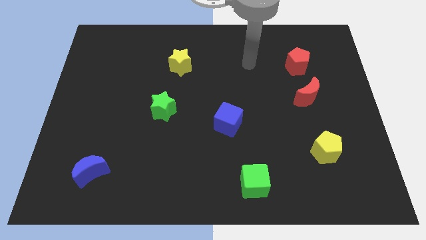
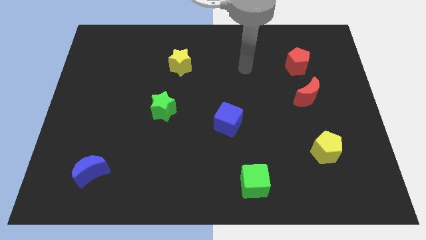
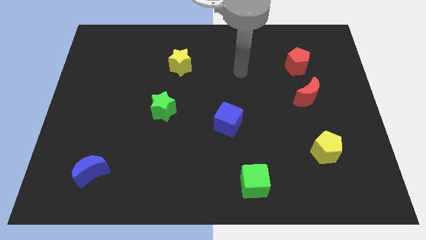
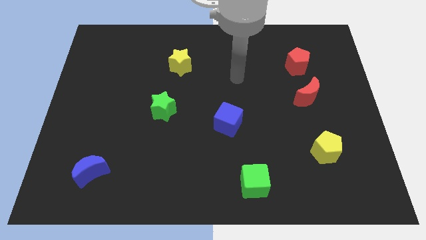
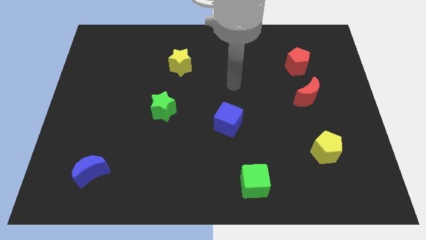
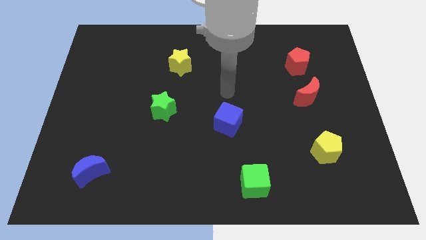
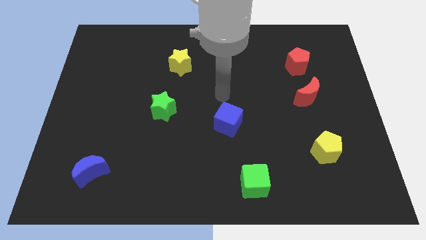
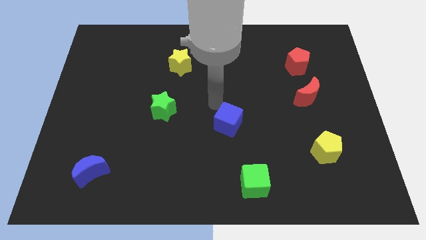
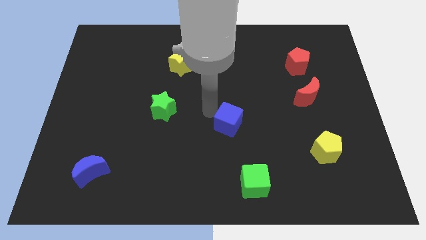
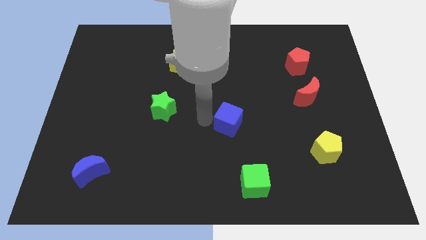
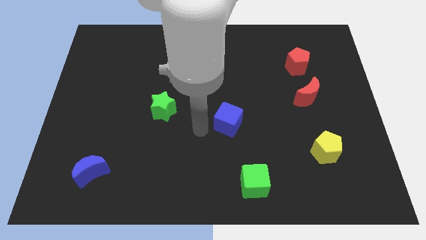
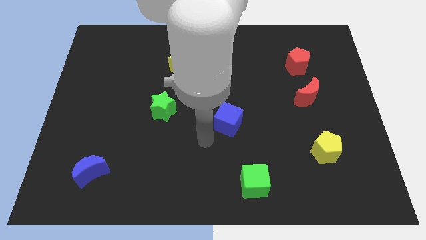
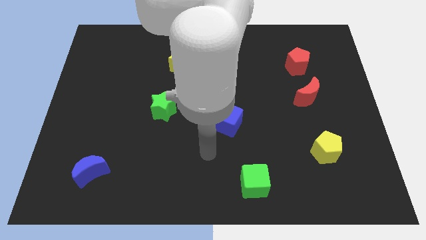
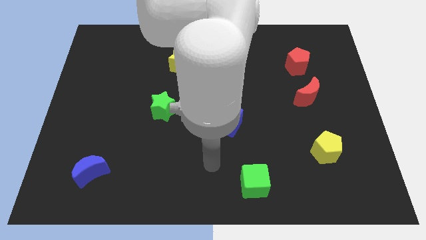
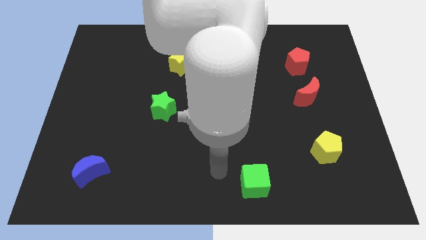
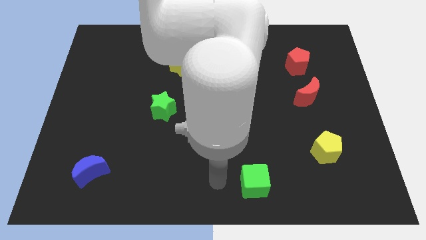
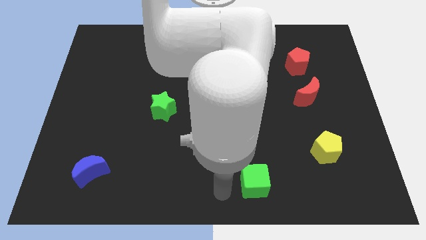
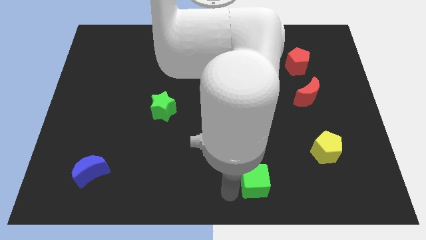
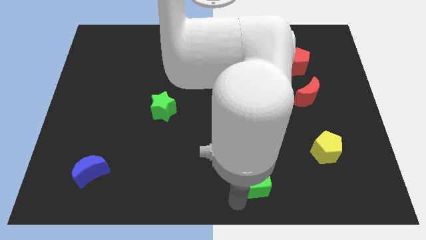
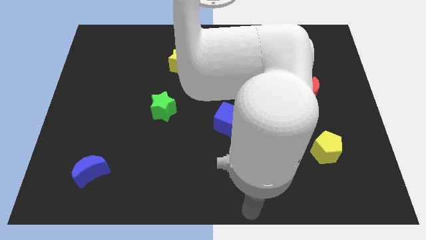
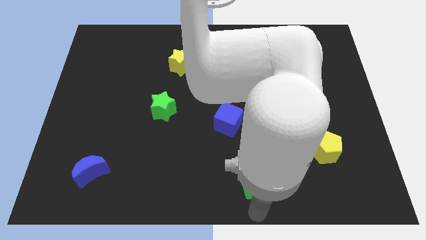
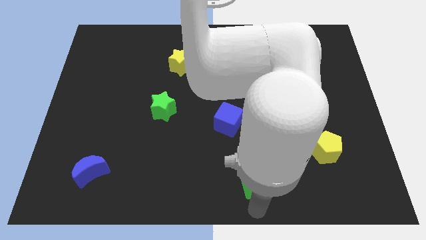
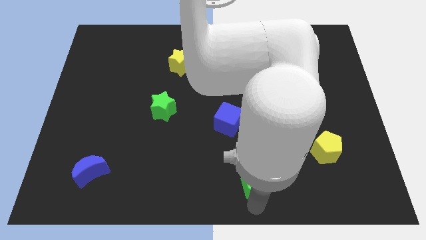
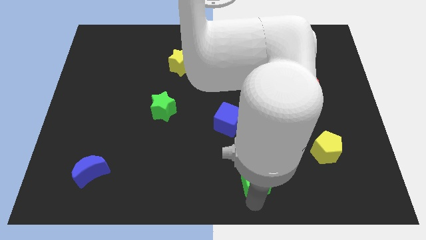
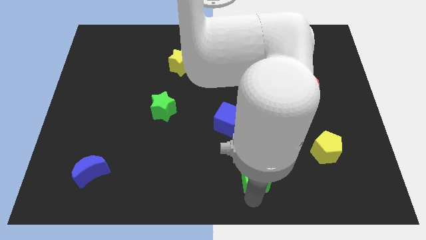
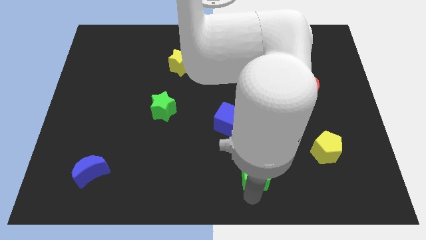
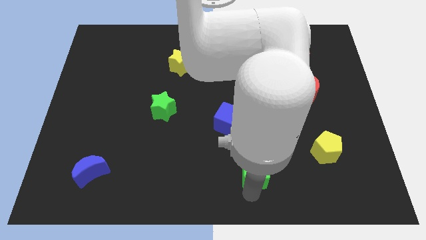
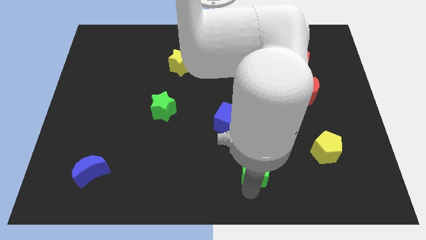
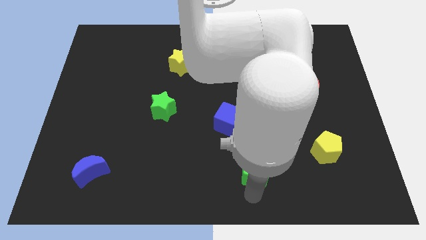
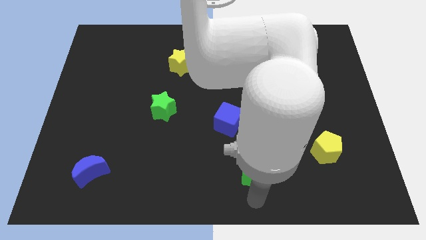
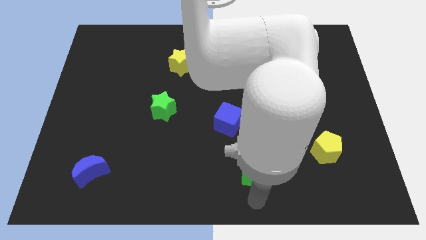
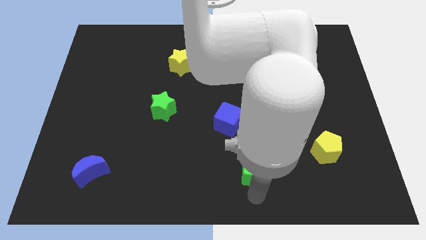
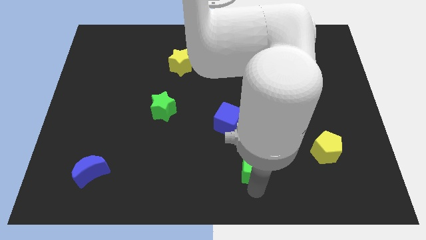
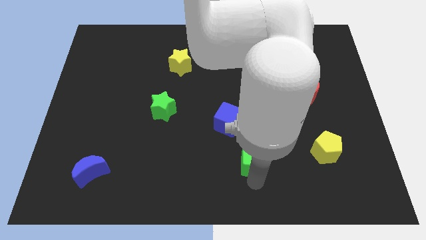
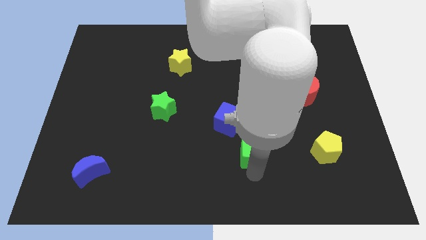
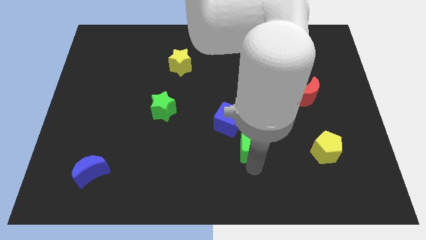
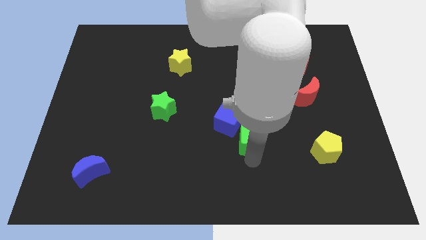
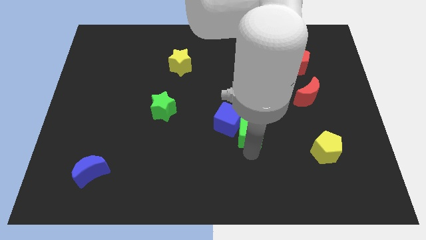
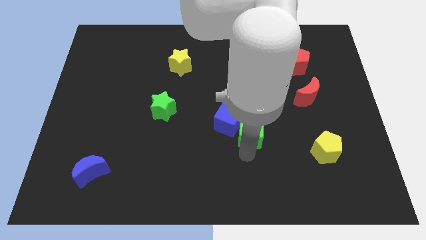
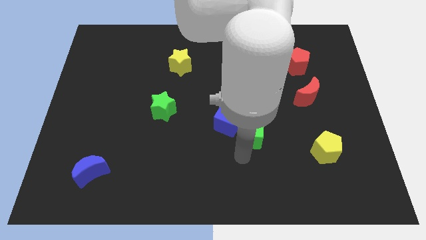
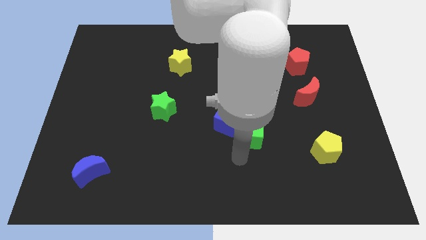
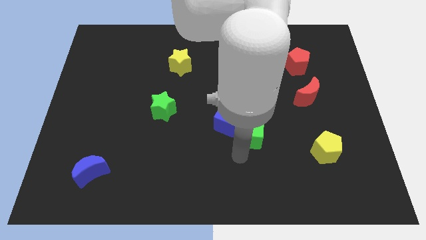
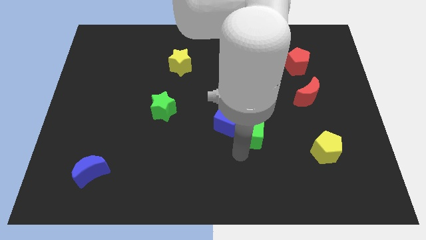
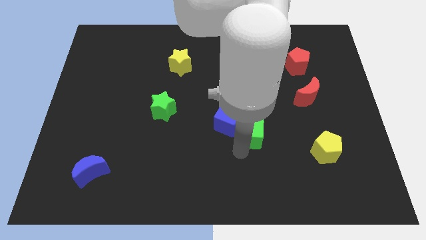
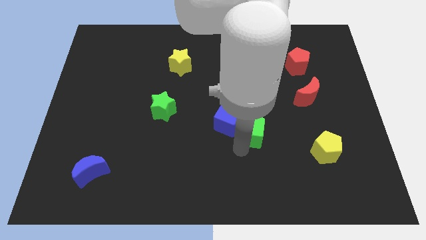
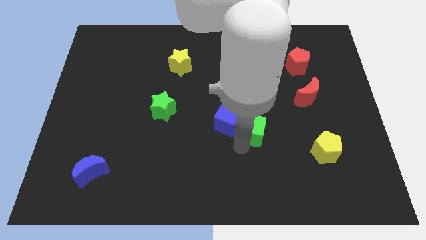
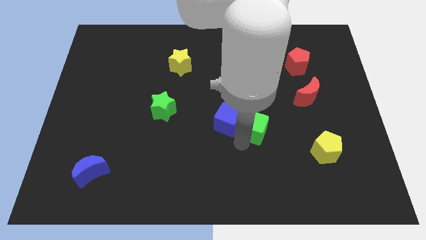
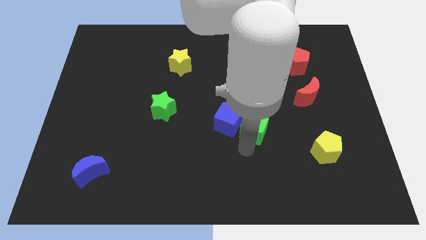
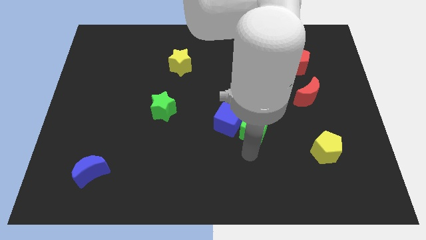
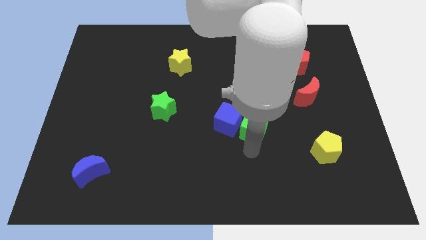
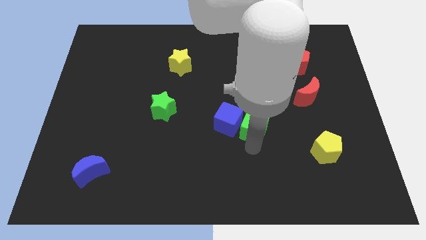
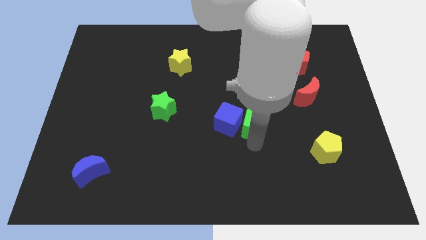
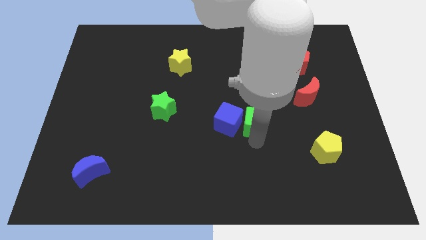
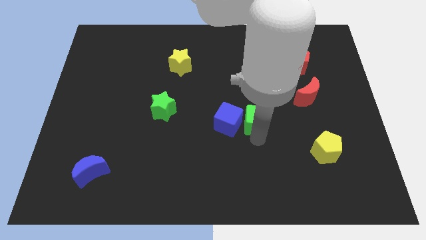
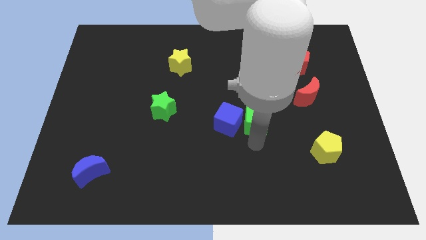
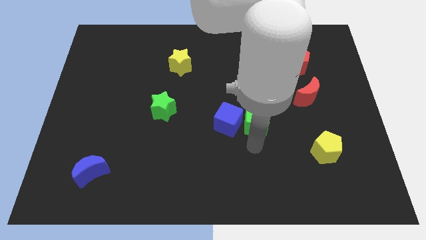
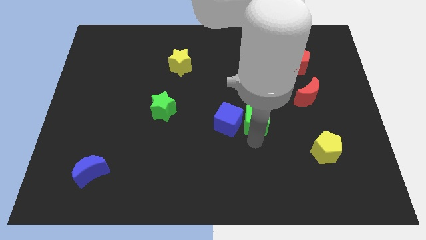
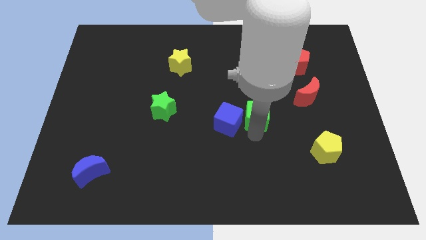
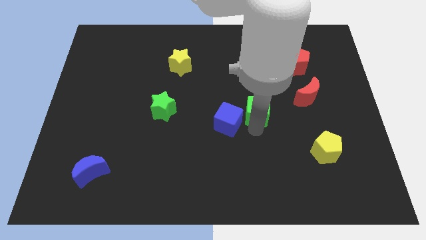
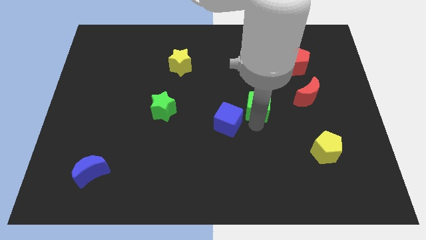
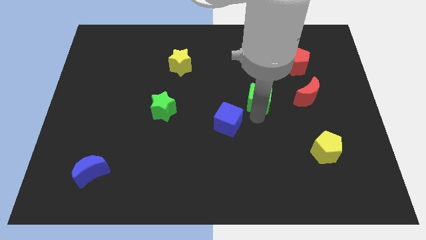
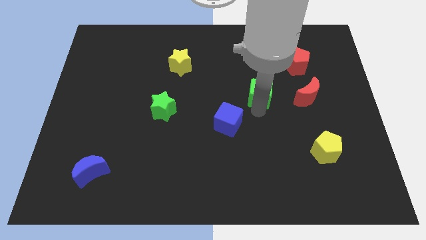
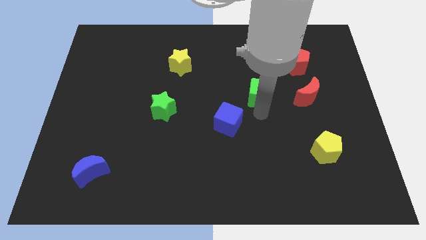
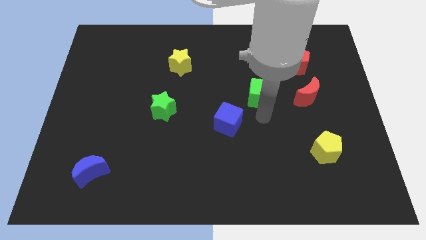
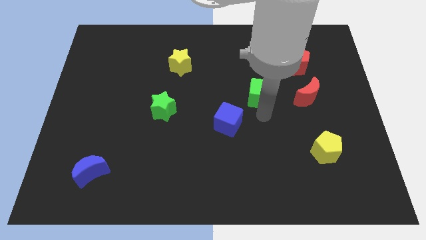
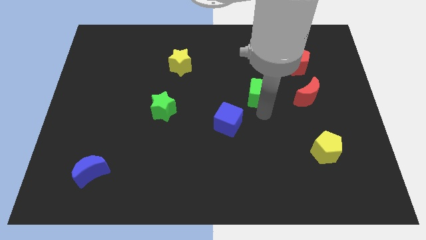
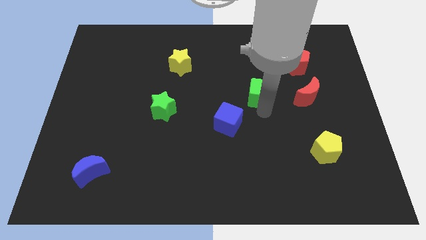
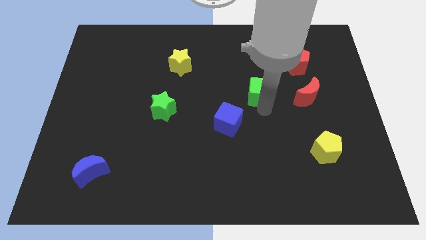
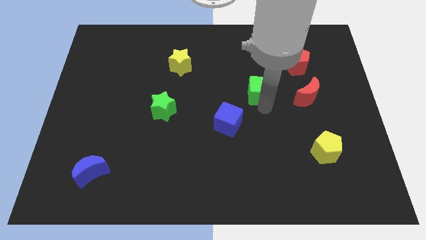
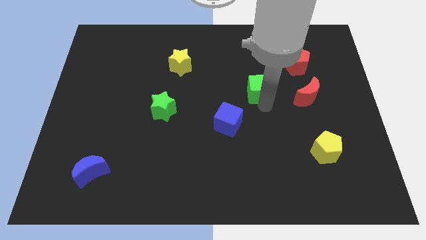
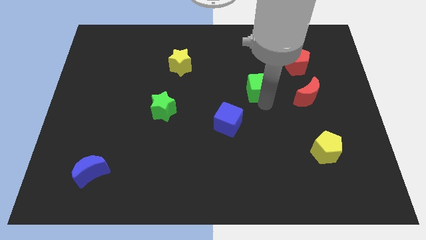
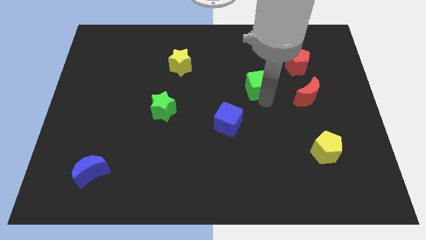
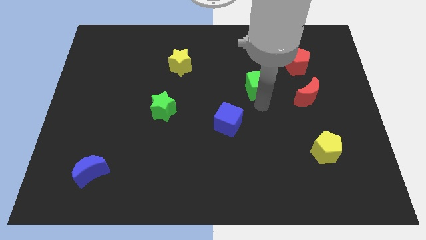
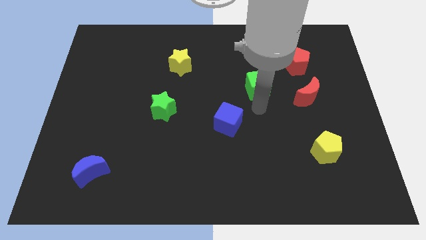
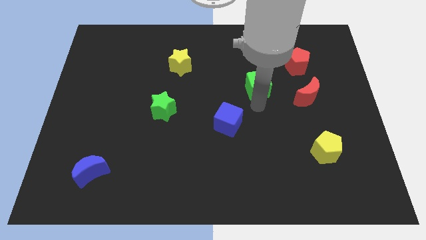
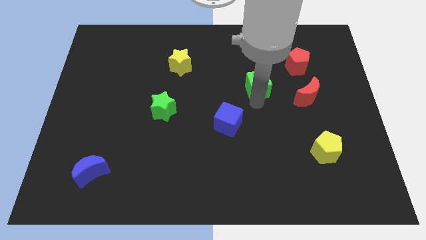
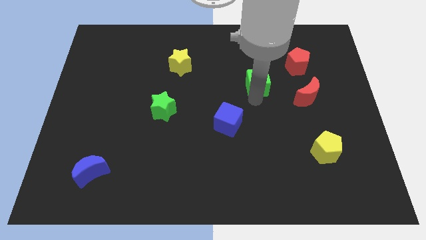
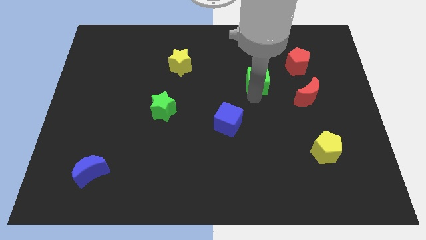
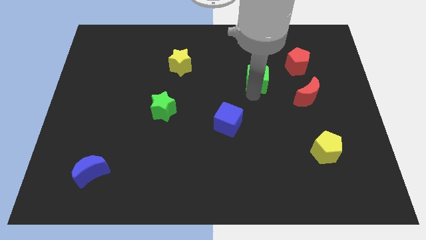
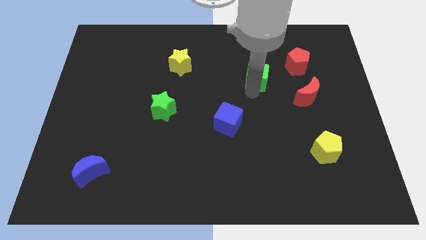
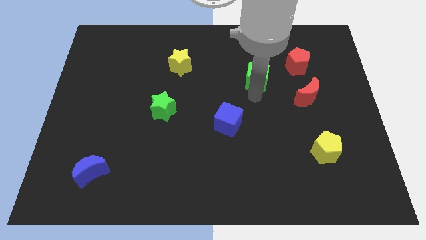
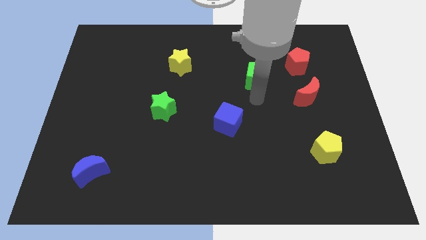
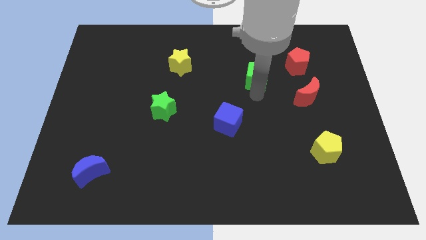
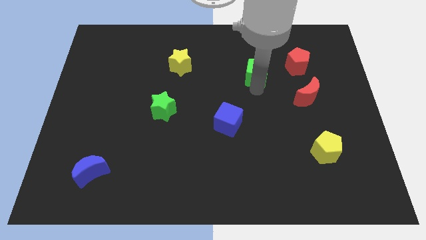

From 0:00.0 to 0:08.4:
move the green cube just left of the red pentagon
